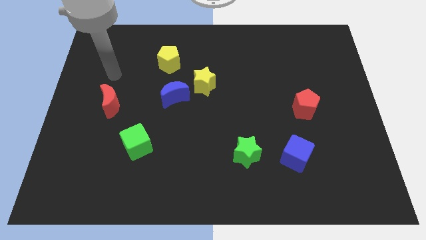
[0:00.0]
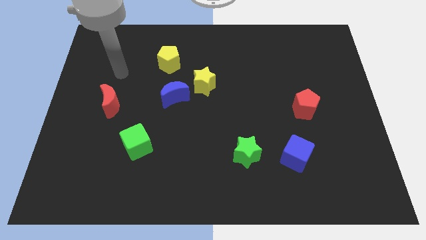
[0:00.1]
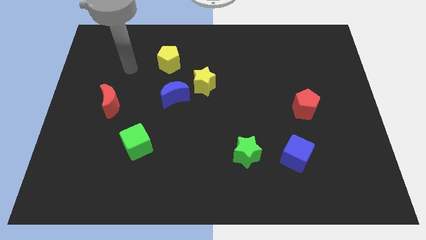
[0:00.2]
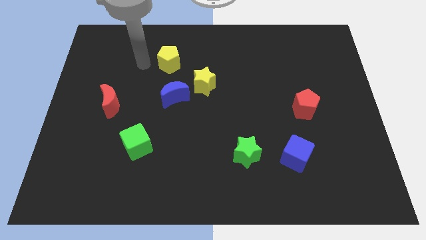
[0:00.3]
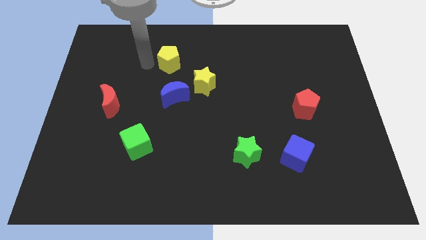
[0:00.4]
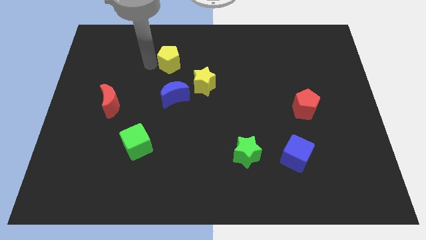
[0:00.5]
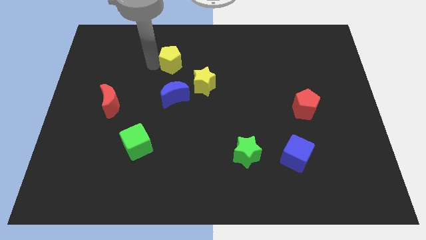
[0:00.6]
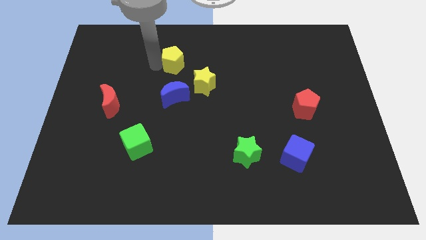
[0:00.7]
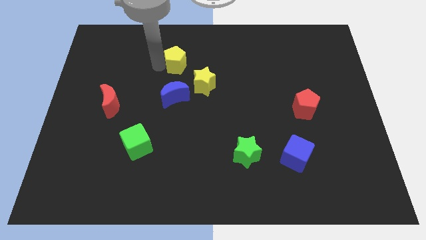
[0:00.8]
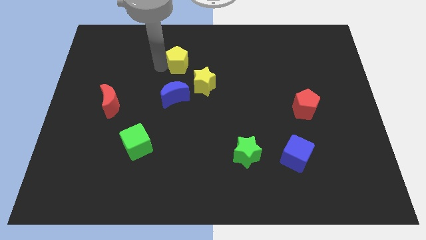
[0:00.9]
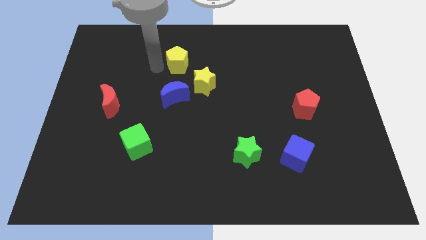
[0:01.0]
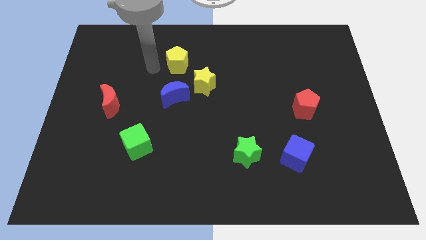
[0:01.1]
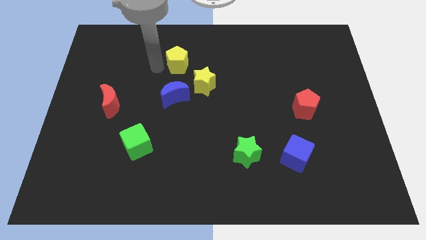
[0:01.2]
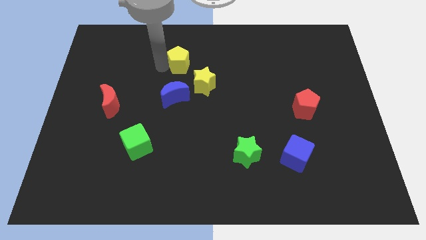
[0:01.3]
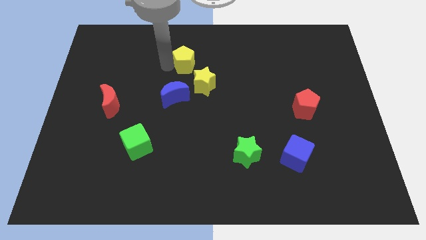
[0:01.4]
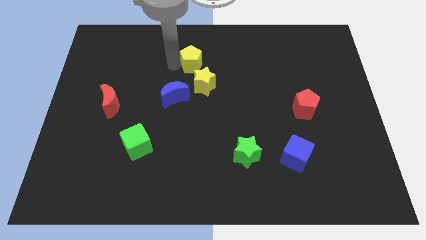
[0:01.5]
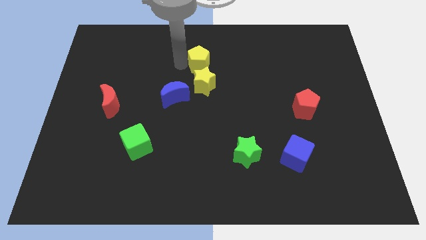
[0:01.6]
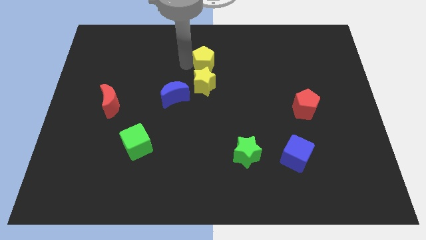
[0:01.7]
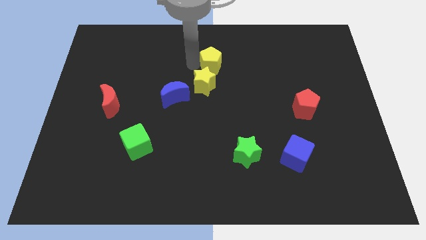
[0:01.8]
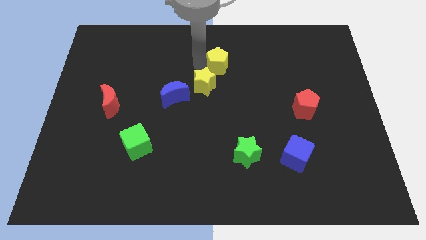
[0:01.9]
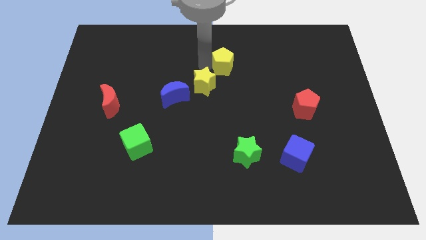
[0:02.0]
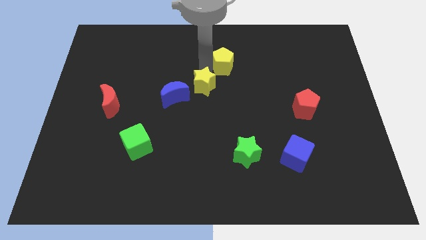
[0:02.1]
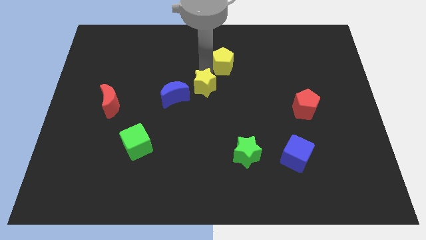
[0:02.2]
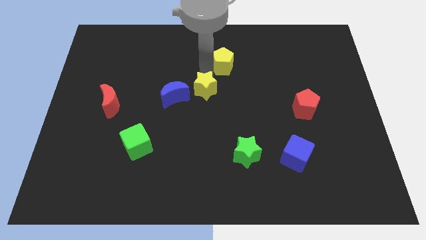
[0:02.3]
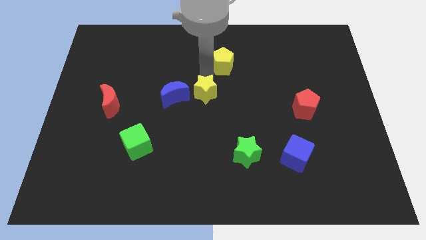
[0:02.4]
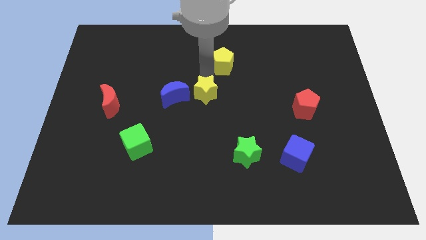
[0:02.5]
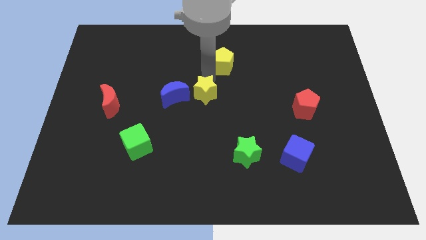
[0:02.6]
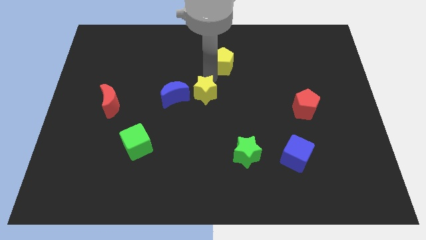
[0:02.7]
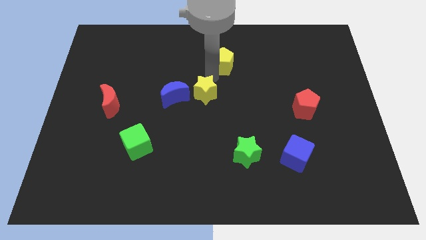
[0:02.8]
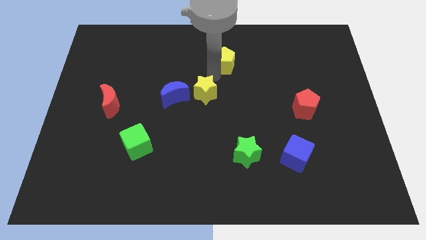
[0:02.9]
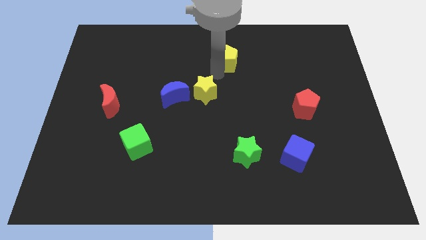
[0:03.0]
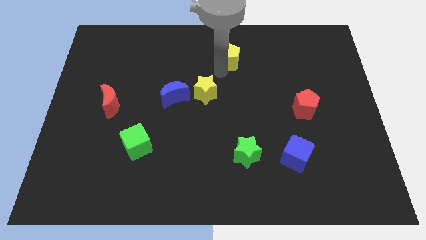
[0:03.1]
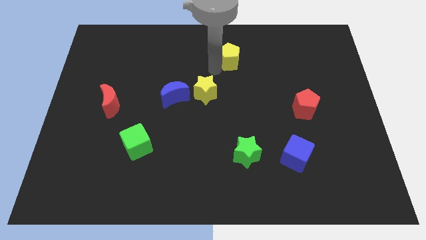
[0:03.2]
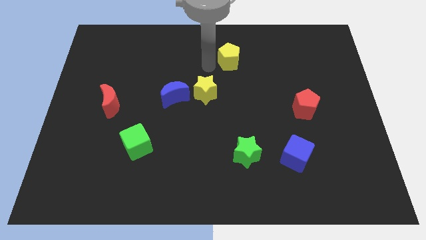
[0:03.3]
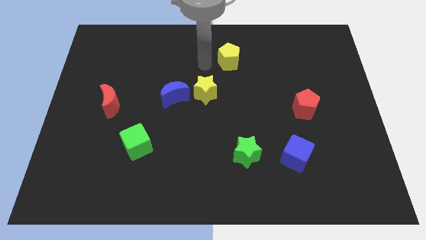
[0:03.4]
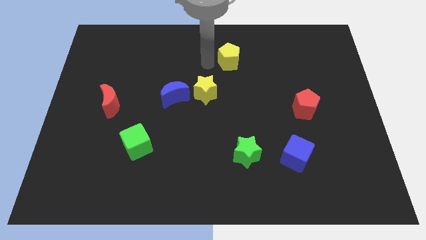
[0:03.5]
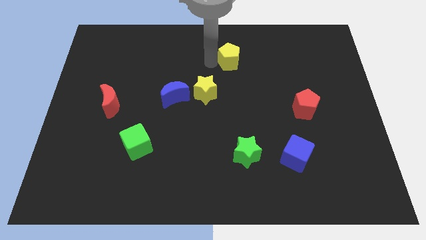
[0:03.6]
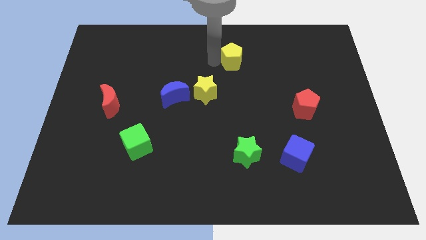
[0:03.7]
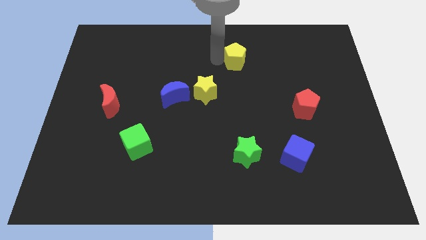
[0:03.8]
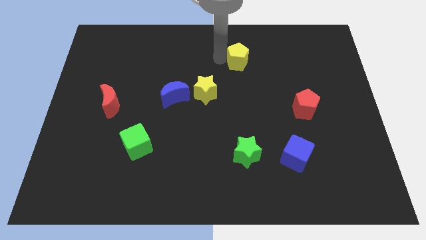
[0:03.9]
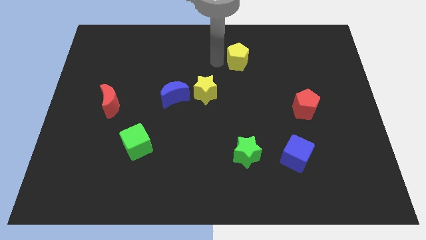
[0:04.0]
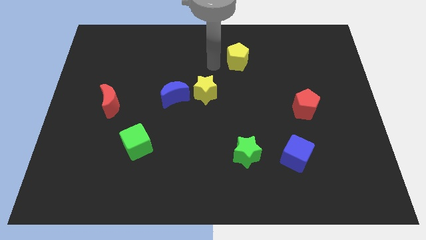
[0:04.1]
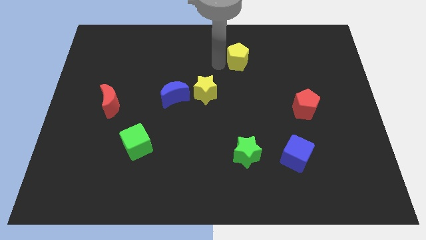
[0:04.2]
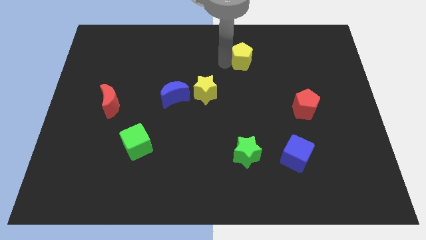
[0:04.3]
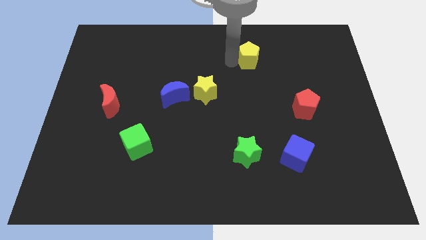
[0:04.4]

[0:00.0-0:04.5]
push the yellow pentagon right

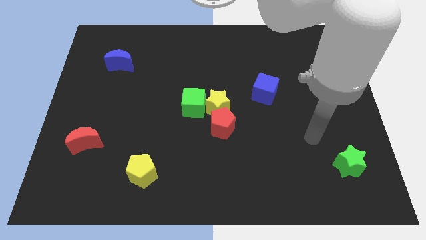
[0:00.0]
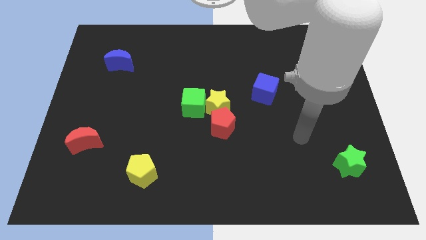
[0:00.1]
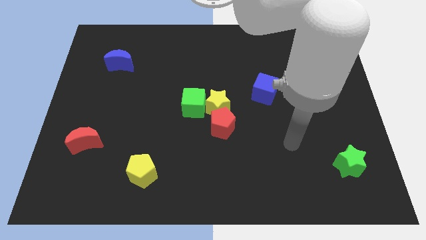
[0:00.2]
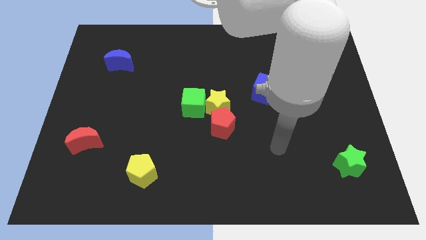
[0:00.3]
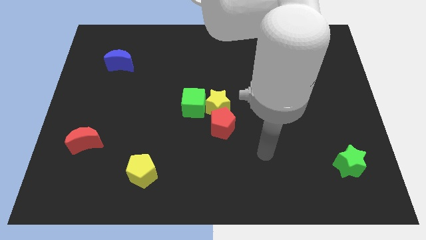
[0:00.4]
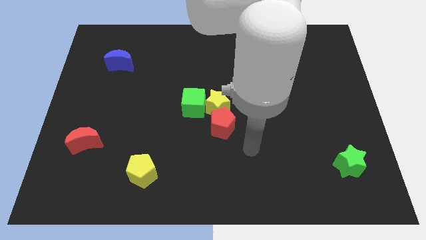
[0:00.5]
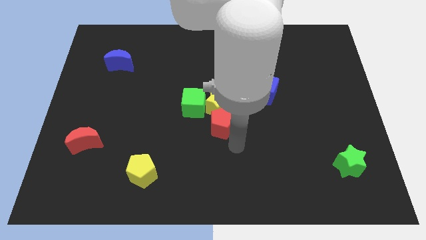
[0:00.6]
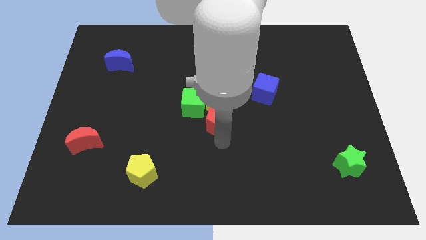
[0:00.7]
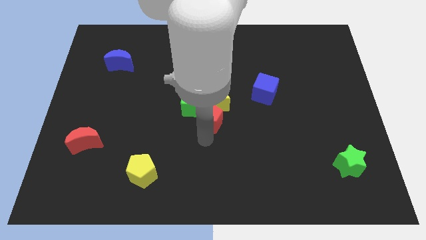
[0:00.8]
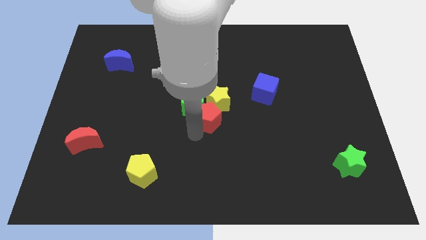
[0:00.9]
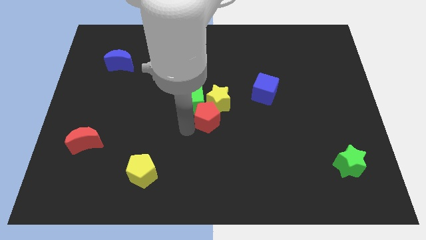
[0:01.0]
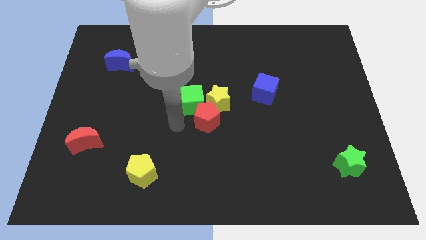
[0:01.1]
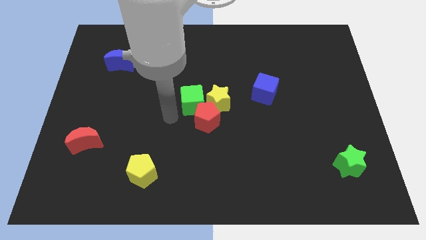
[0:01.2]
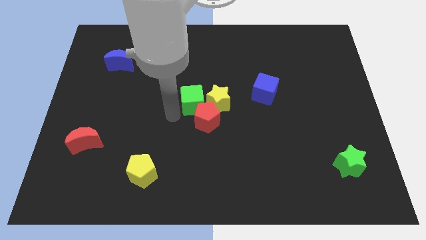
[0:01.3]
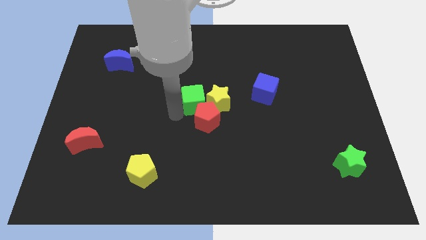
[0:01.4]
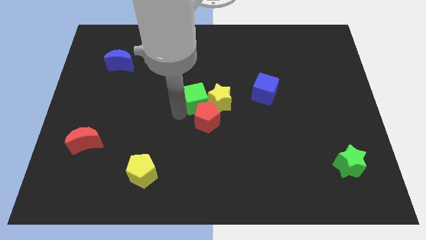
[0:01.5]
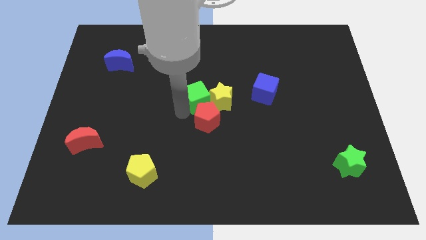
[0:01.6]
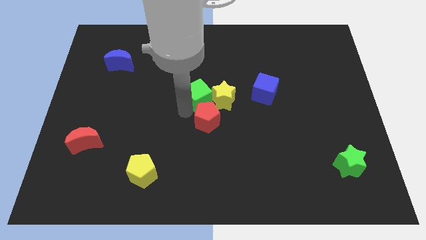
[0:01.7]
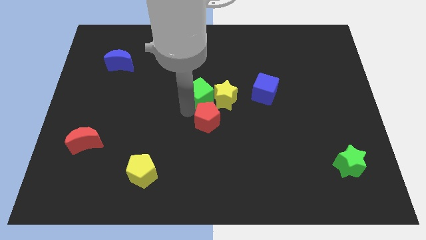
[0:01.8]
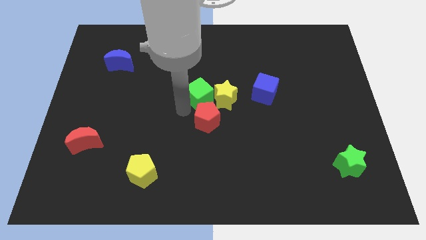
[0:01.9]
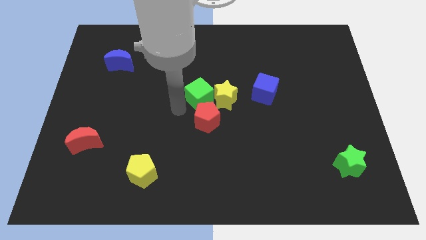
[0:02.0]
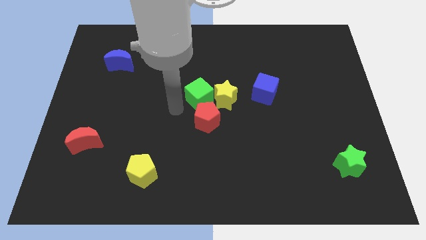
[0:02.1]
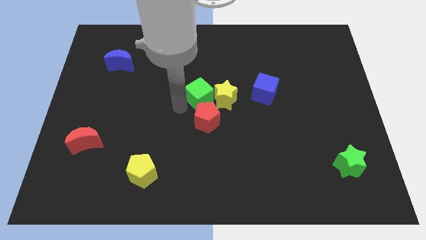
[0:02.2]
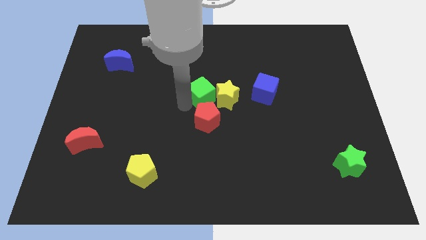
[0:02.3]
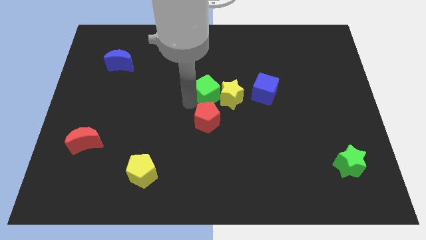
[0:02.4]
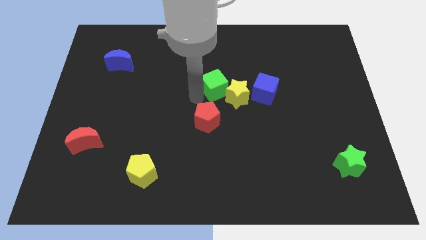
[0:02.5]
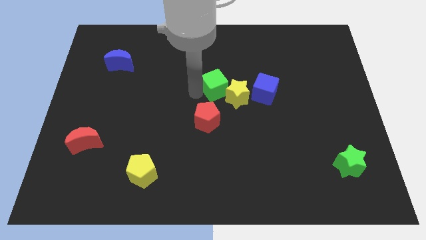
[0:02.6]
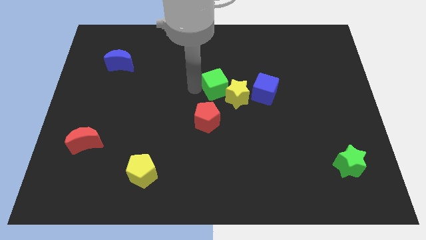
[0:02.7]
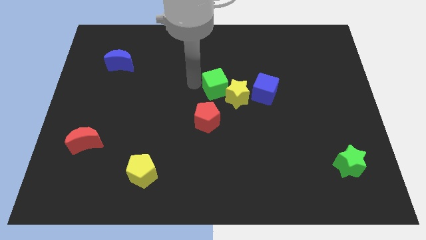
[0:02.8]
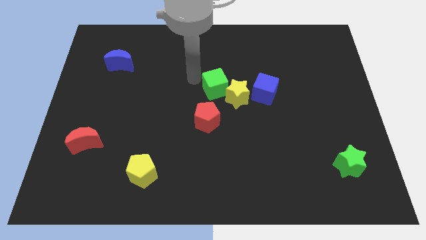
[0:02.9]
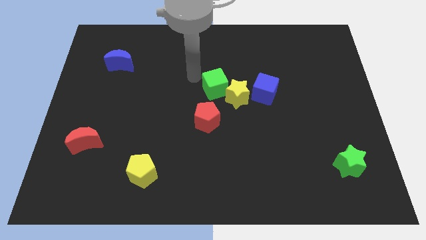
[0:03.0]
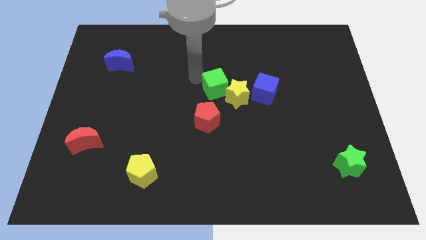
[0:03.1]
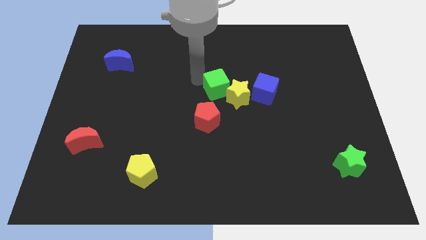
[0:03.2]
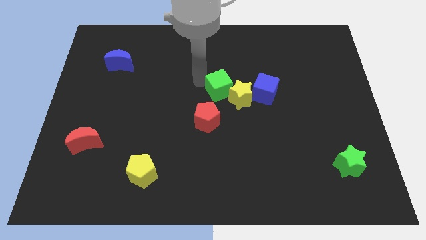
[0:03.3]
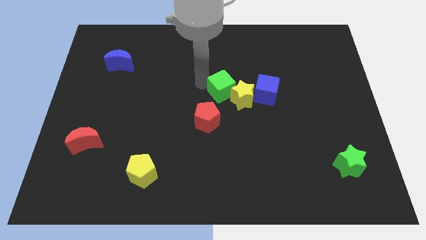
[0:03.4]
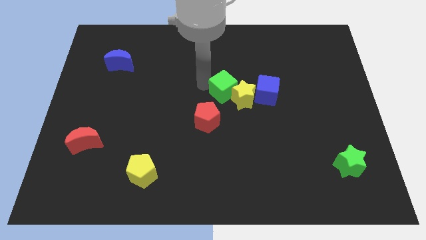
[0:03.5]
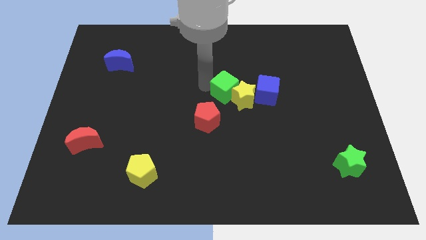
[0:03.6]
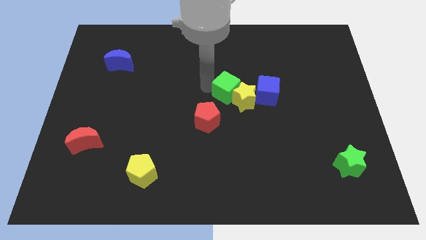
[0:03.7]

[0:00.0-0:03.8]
push the green cube a bit to the right
